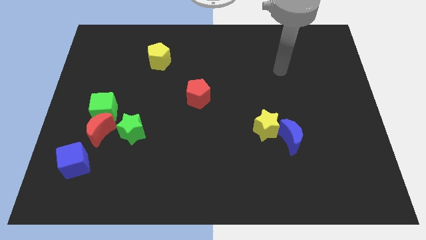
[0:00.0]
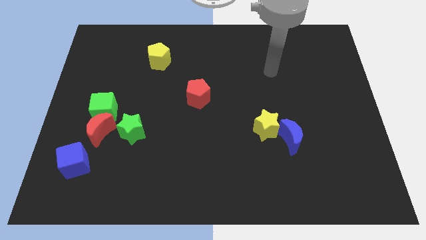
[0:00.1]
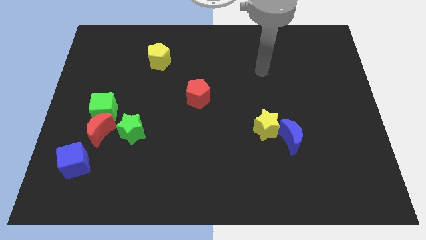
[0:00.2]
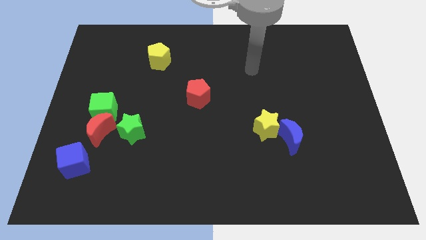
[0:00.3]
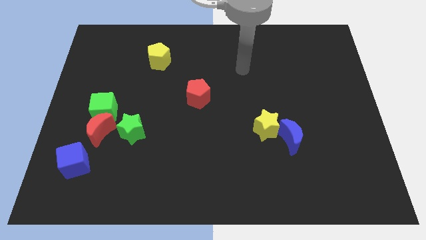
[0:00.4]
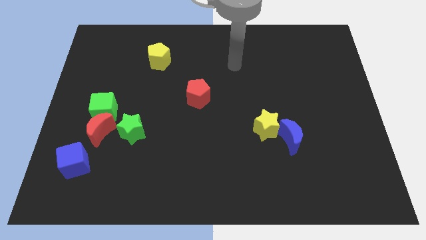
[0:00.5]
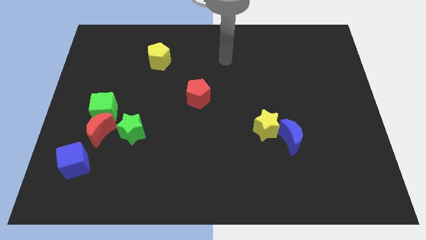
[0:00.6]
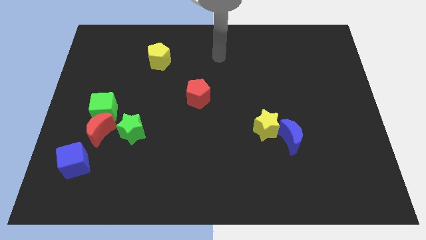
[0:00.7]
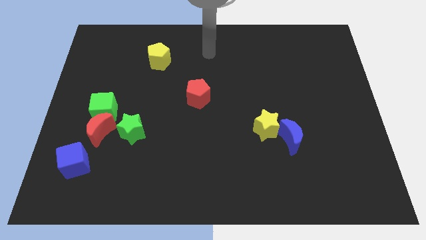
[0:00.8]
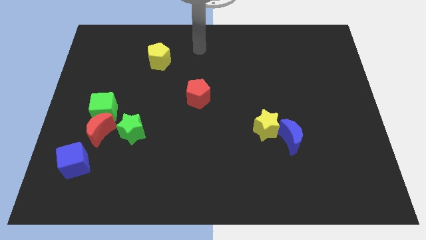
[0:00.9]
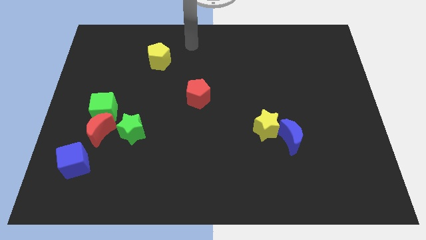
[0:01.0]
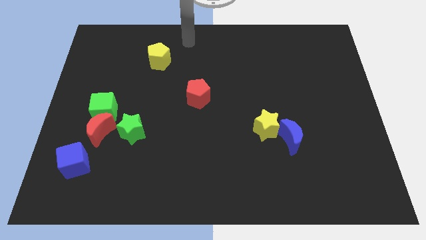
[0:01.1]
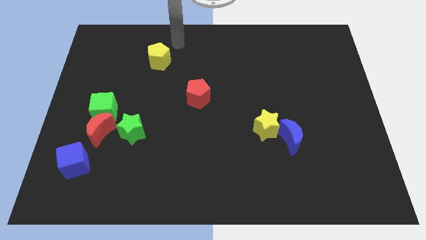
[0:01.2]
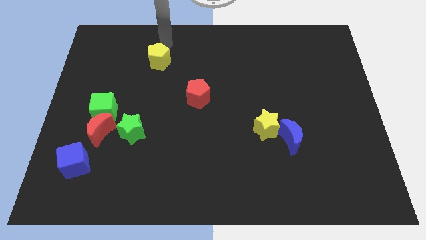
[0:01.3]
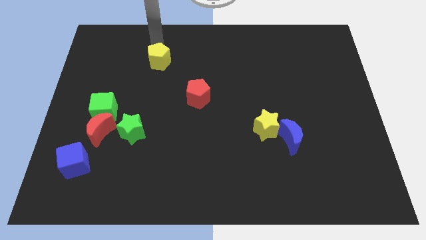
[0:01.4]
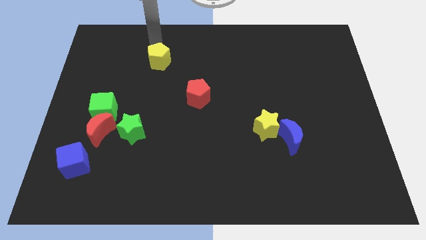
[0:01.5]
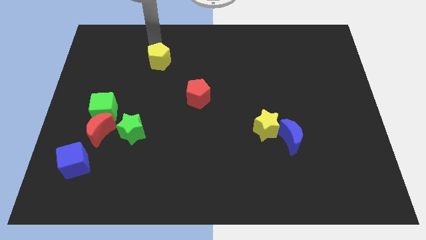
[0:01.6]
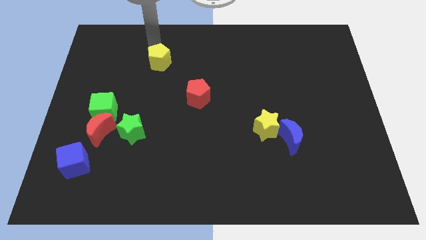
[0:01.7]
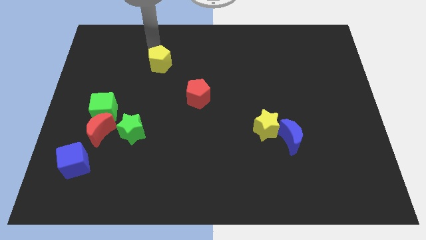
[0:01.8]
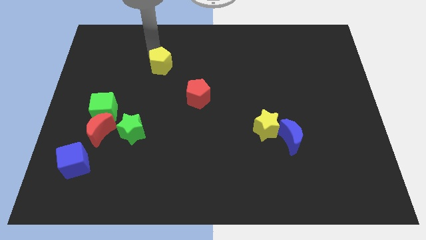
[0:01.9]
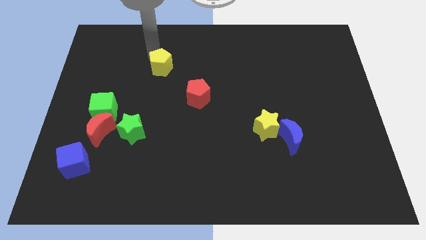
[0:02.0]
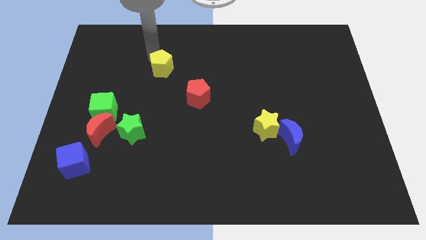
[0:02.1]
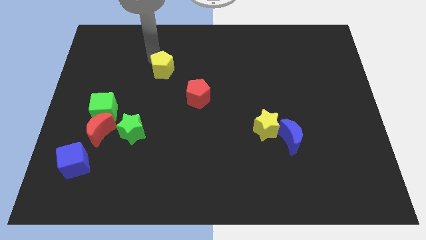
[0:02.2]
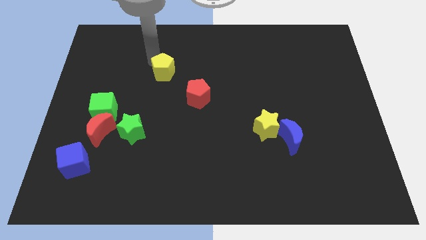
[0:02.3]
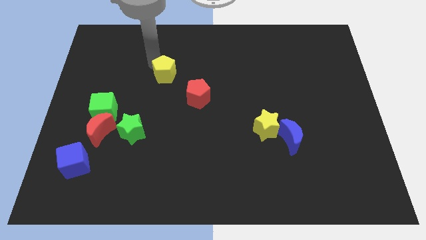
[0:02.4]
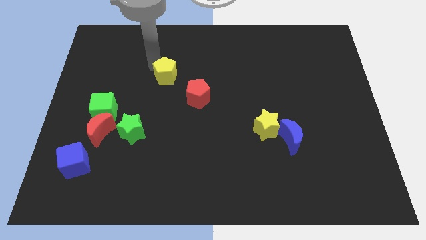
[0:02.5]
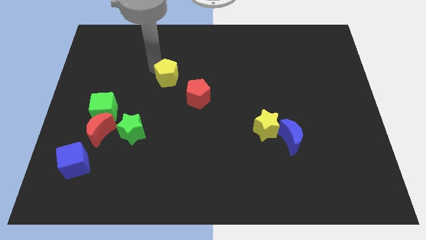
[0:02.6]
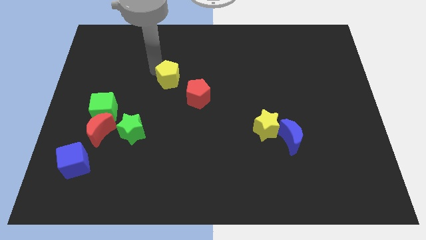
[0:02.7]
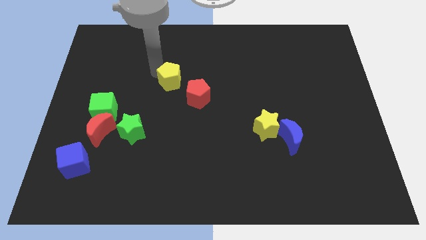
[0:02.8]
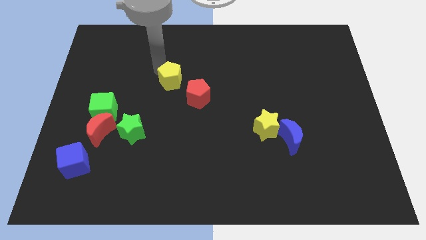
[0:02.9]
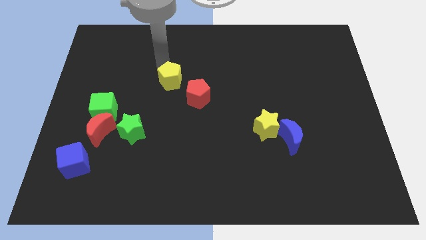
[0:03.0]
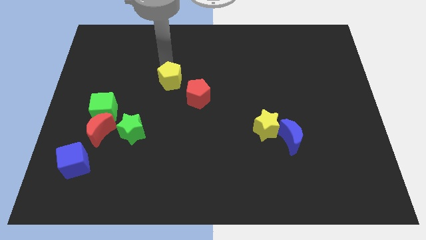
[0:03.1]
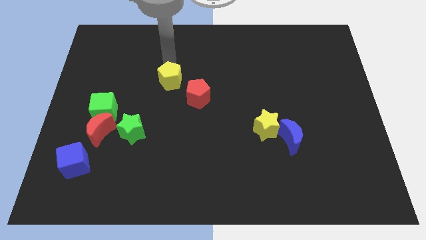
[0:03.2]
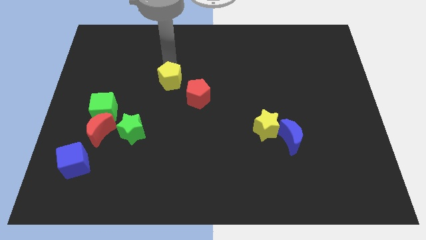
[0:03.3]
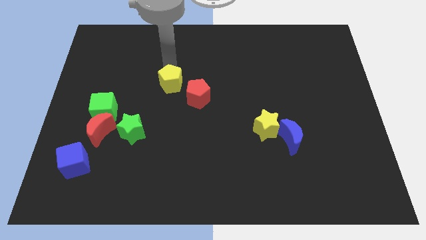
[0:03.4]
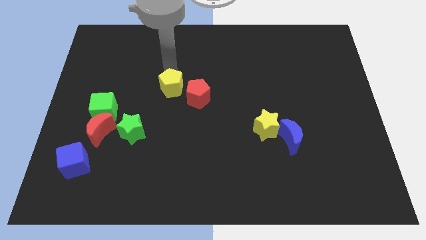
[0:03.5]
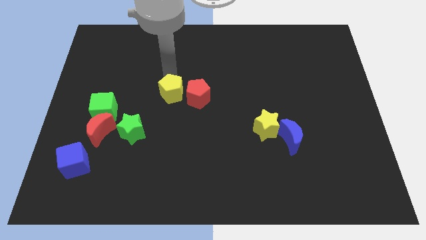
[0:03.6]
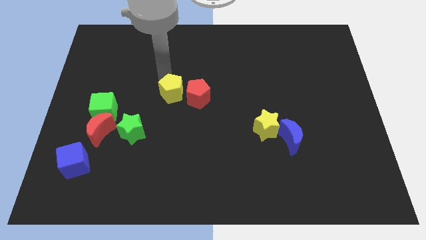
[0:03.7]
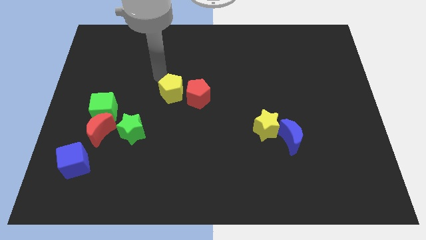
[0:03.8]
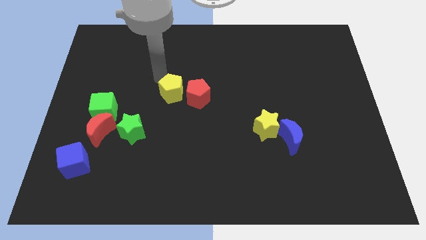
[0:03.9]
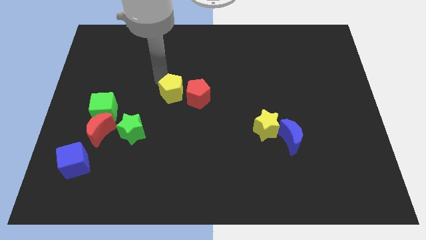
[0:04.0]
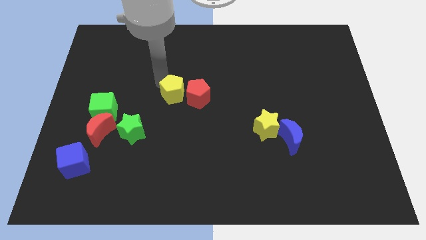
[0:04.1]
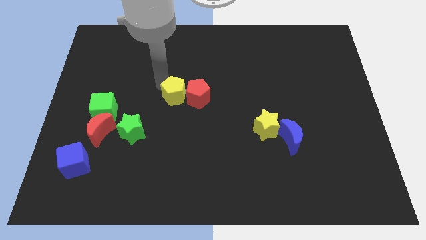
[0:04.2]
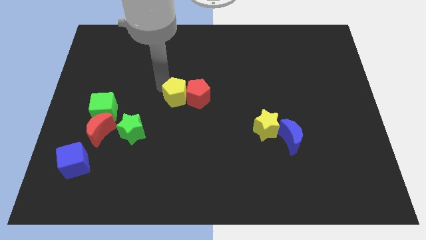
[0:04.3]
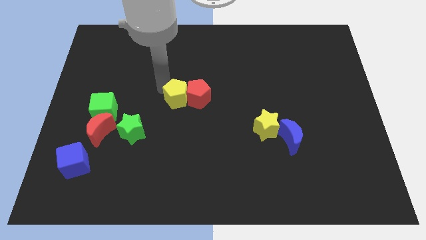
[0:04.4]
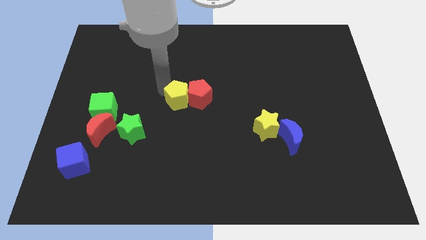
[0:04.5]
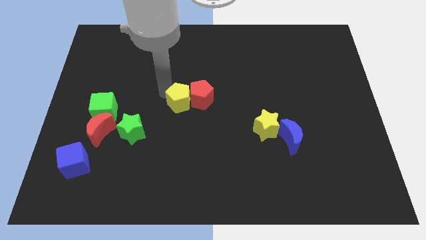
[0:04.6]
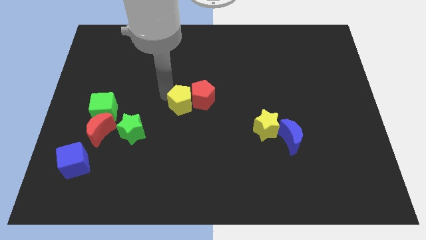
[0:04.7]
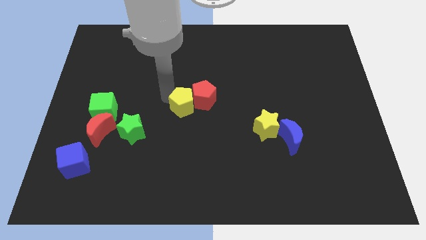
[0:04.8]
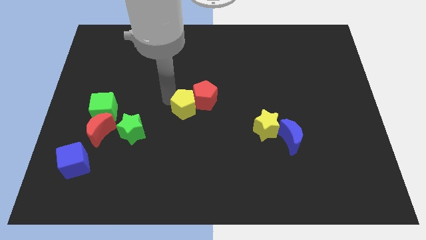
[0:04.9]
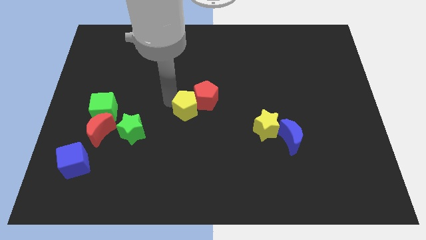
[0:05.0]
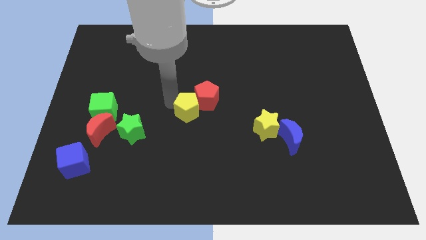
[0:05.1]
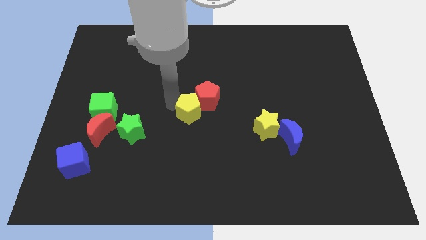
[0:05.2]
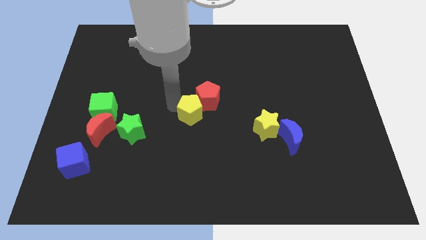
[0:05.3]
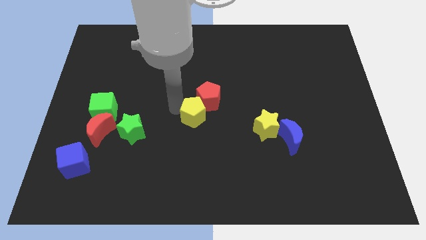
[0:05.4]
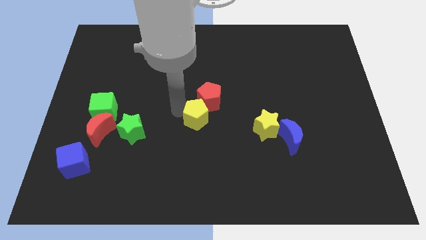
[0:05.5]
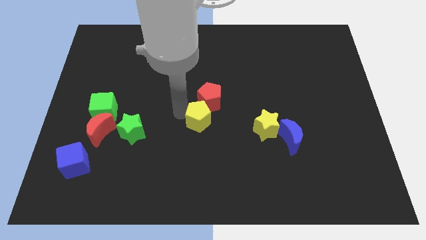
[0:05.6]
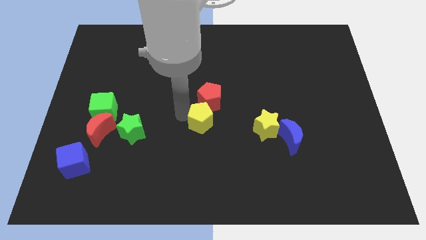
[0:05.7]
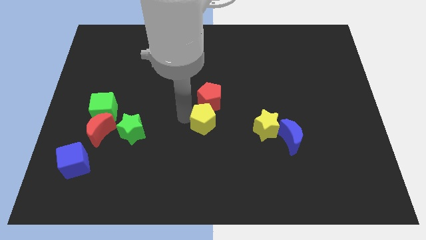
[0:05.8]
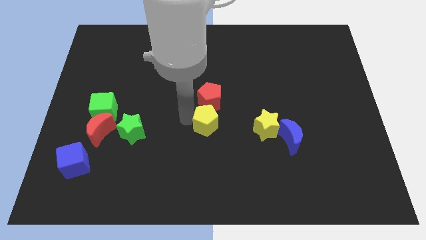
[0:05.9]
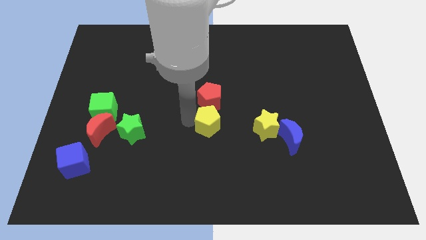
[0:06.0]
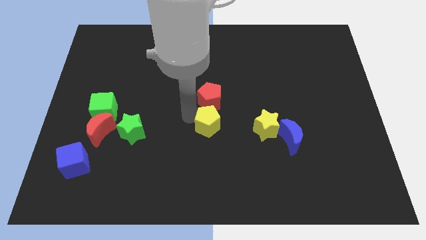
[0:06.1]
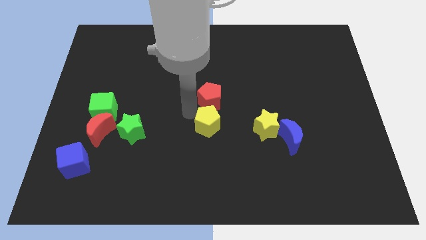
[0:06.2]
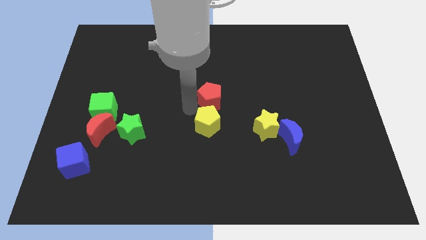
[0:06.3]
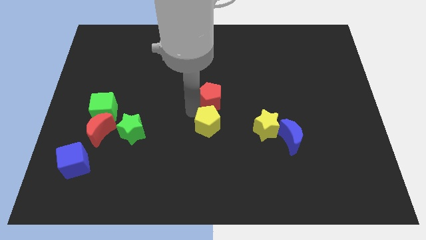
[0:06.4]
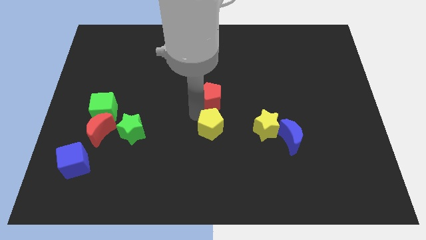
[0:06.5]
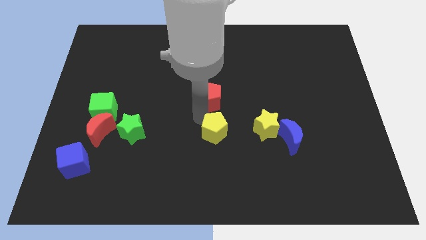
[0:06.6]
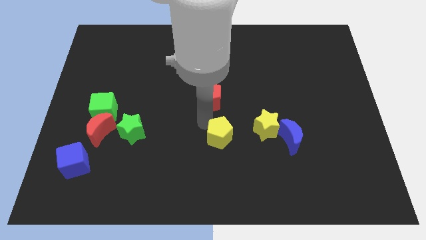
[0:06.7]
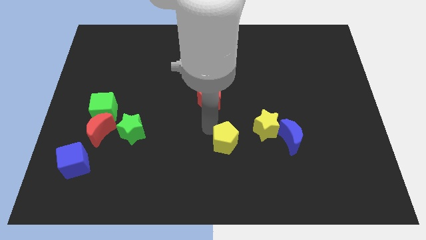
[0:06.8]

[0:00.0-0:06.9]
put the yellow pentagon to the bottom left of the yellow star

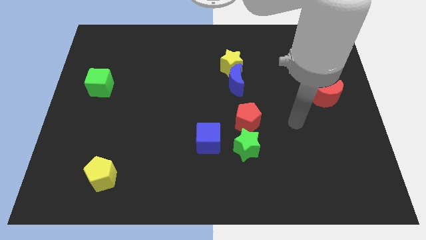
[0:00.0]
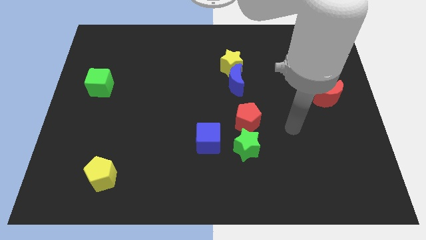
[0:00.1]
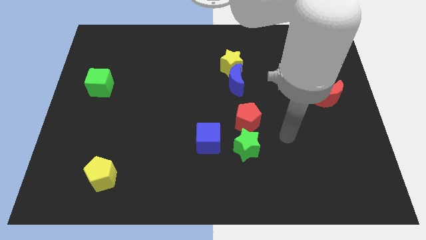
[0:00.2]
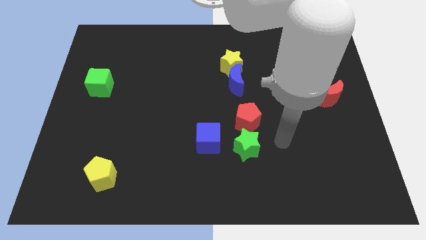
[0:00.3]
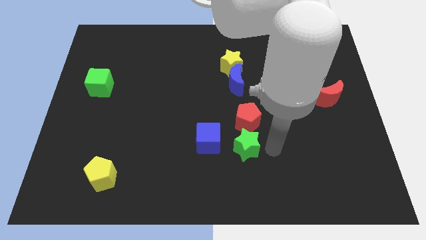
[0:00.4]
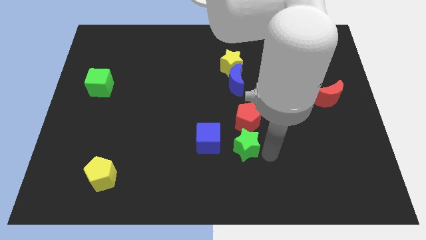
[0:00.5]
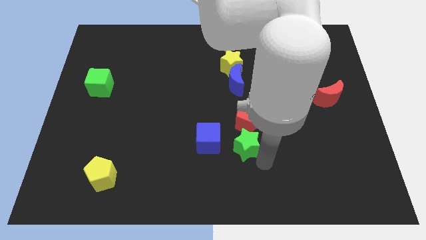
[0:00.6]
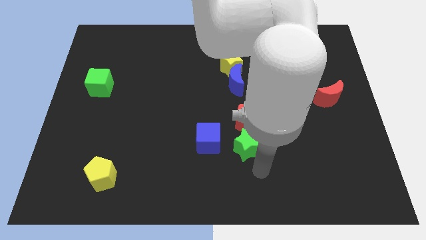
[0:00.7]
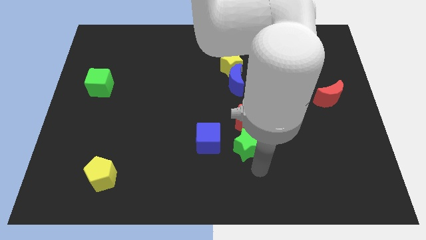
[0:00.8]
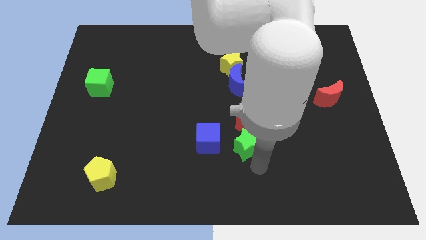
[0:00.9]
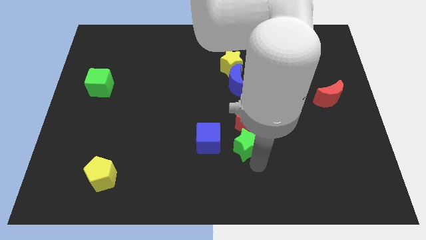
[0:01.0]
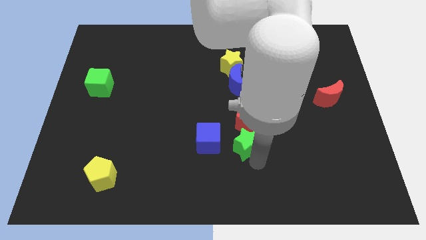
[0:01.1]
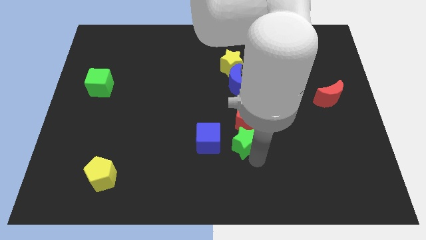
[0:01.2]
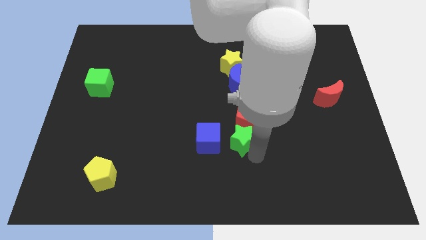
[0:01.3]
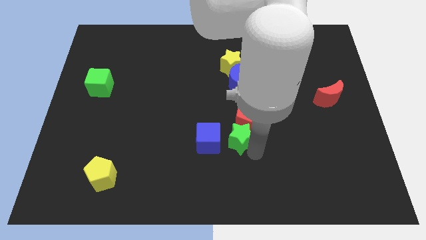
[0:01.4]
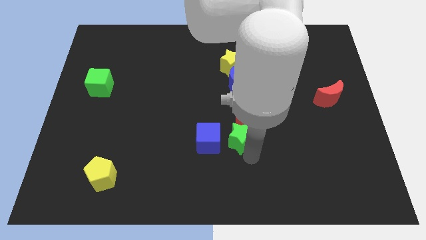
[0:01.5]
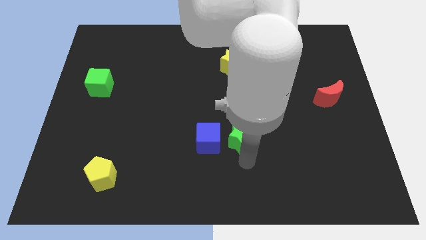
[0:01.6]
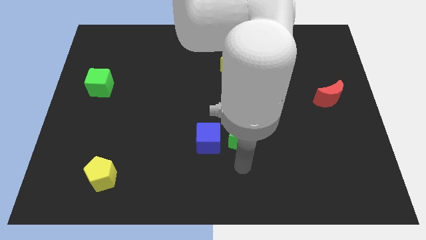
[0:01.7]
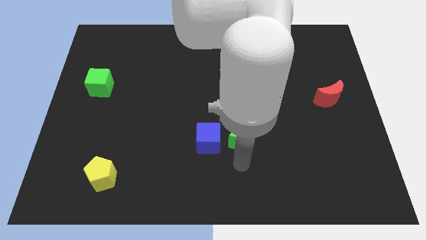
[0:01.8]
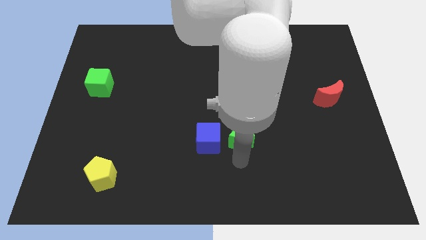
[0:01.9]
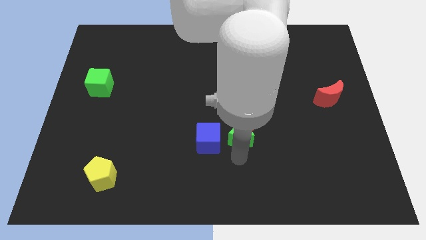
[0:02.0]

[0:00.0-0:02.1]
put the green star below the blue moon
